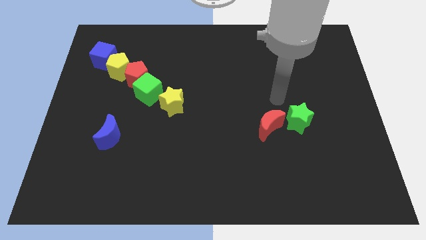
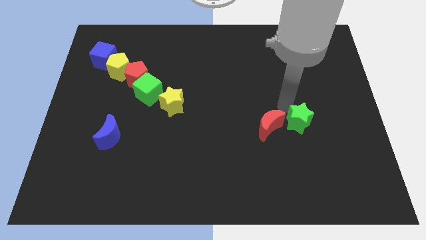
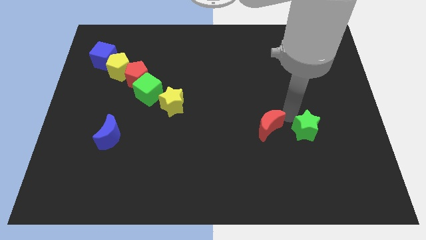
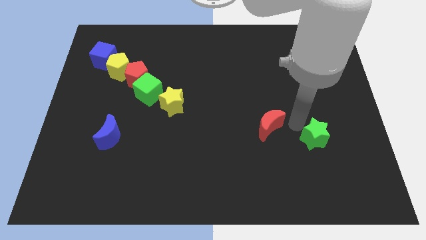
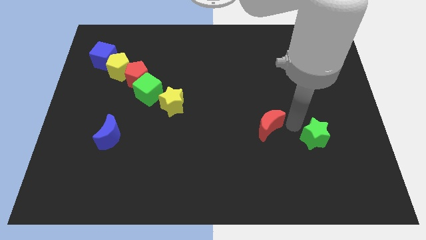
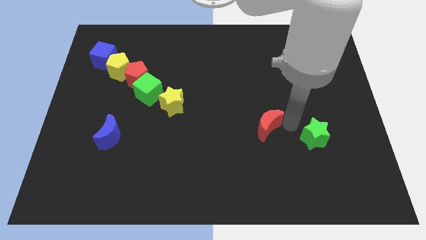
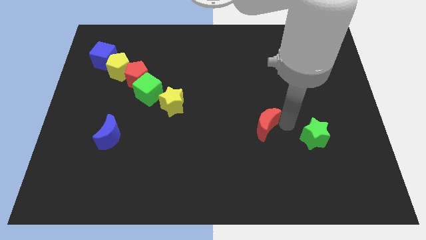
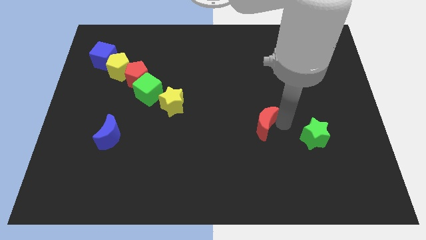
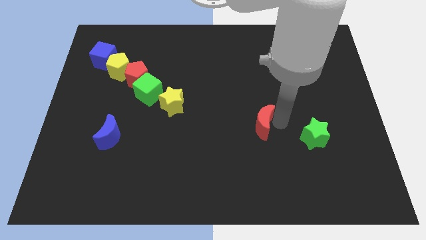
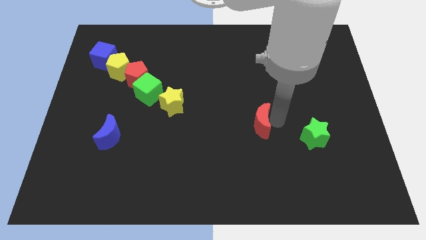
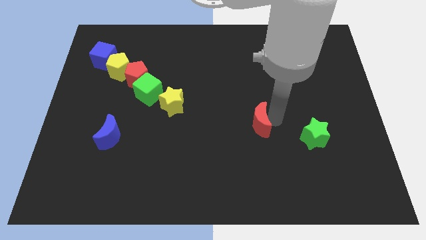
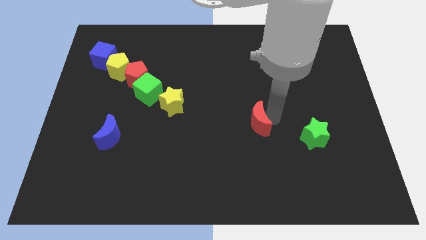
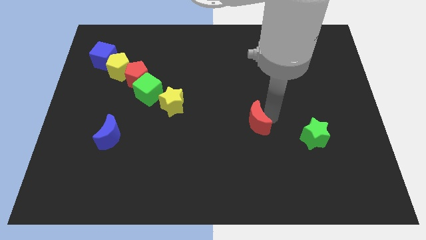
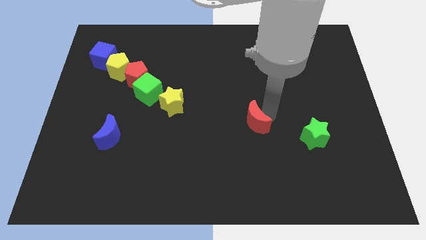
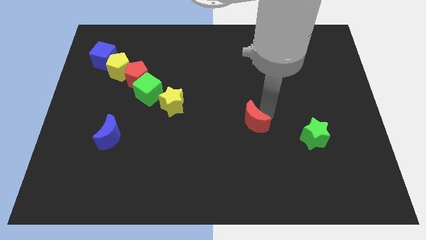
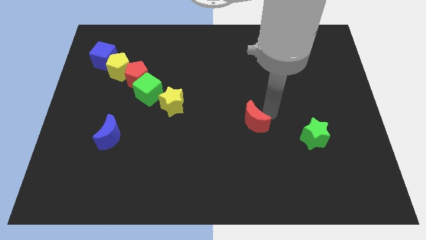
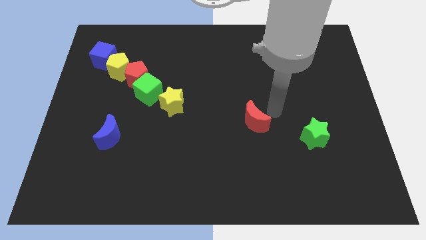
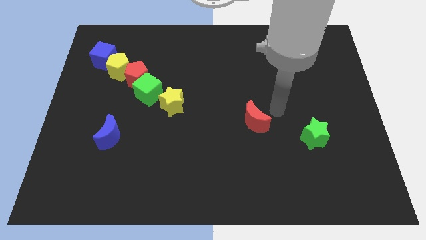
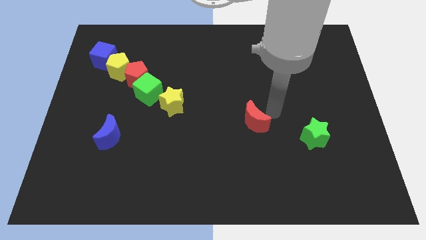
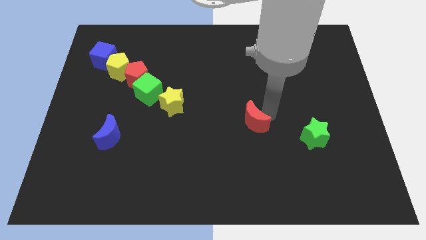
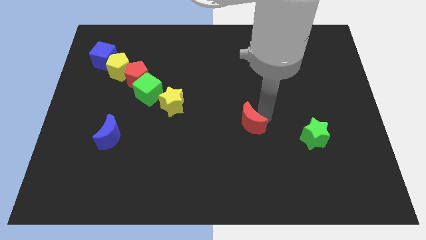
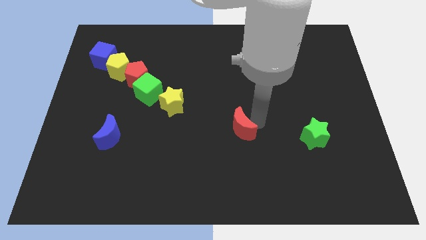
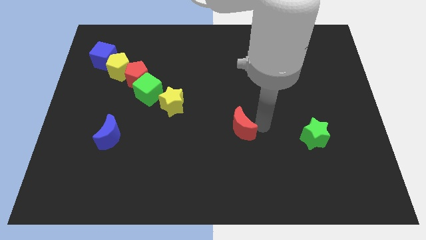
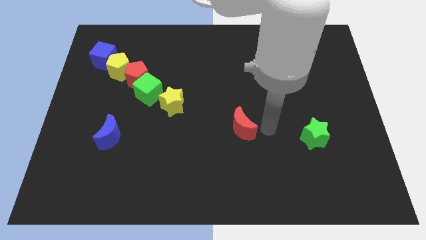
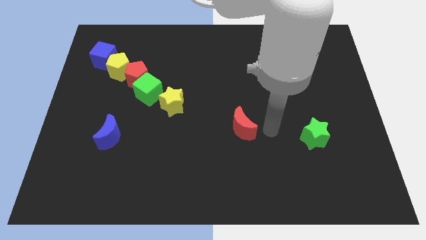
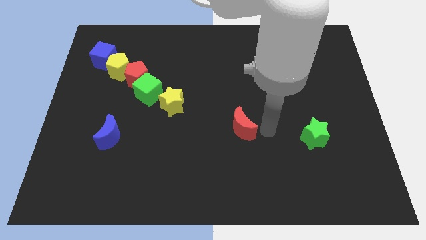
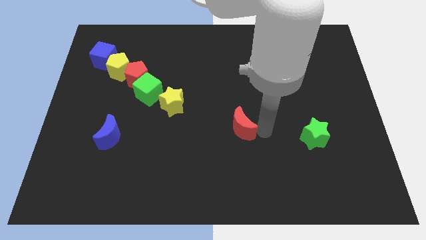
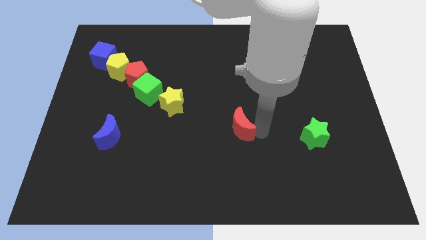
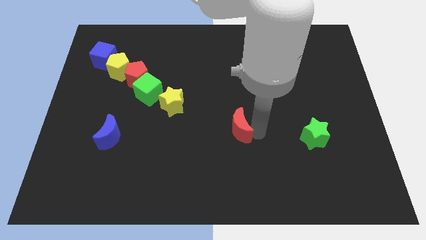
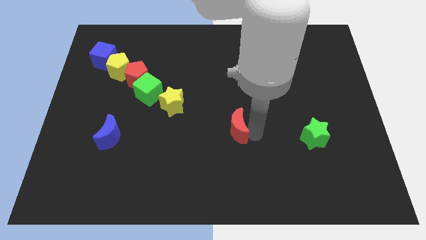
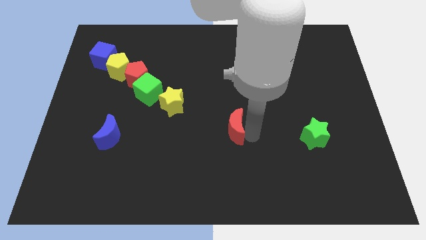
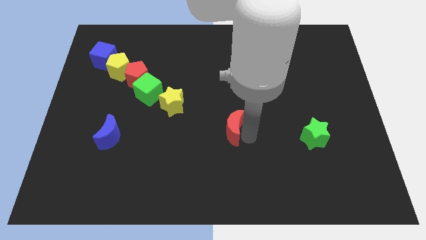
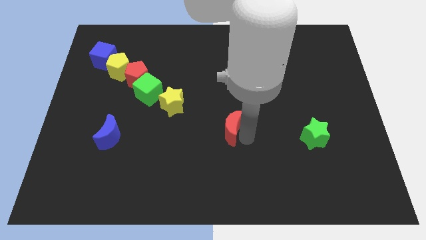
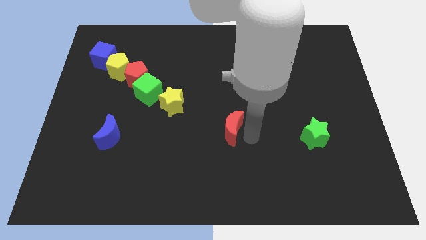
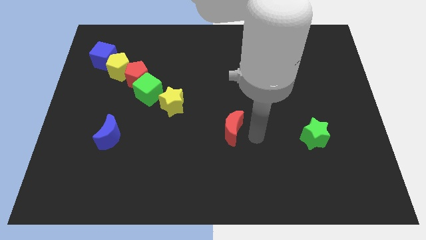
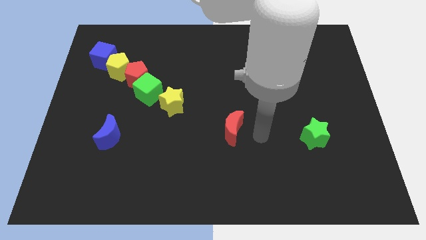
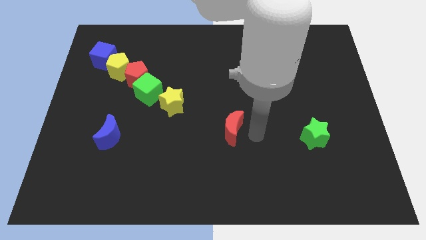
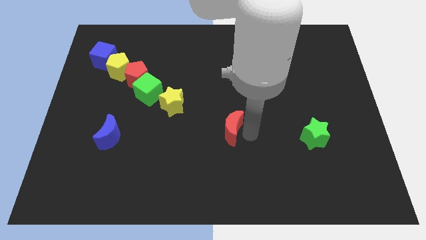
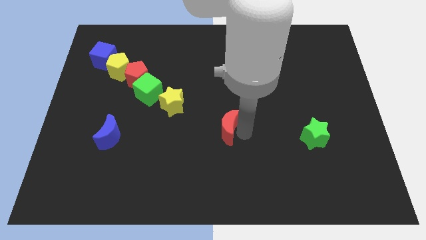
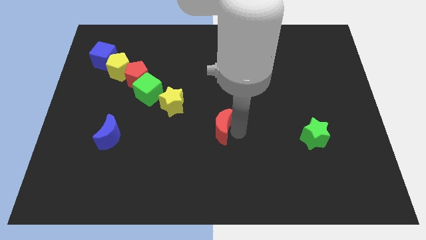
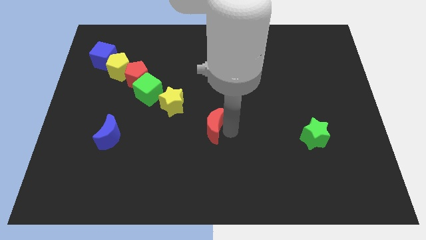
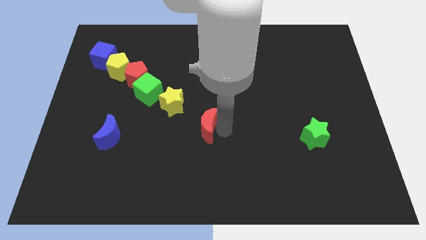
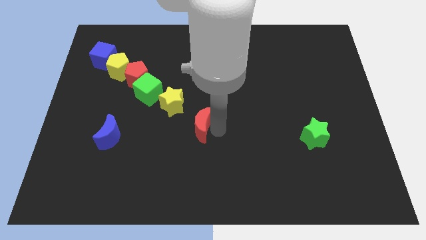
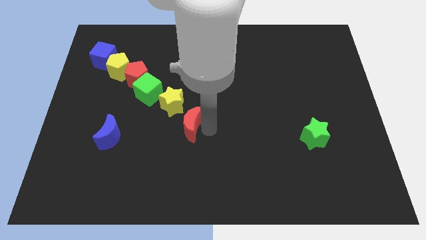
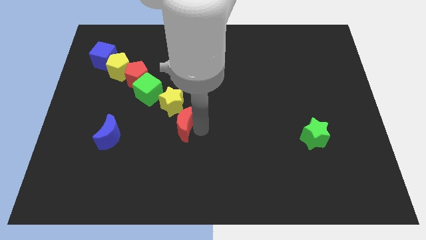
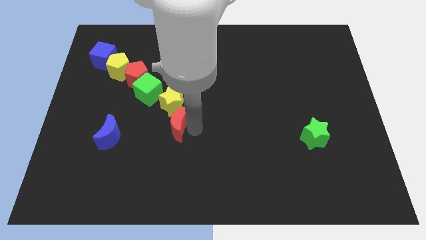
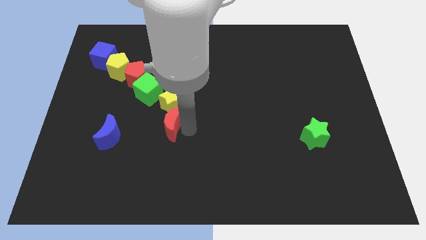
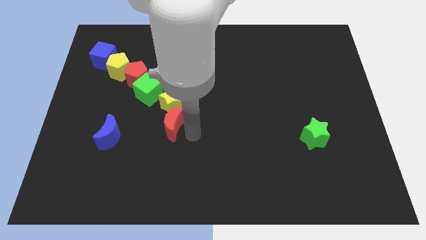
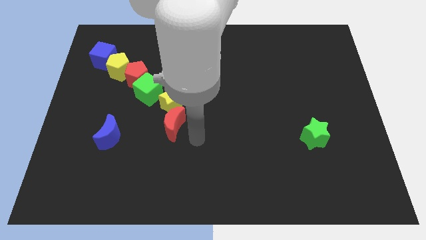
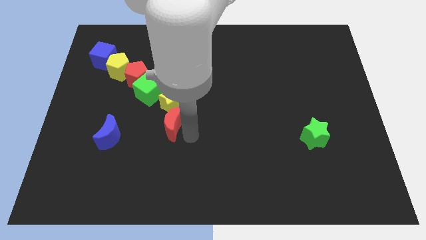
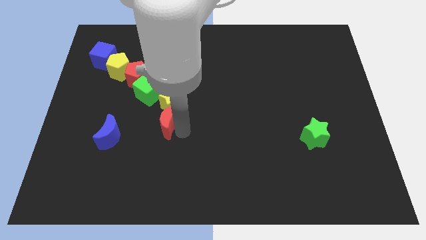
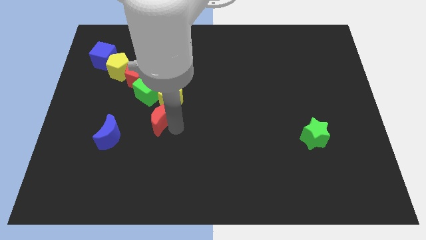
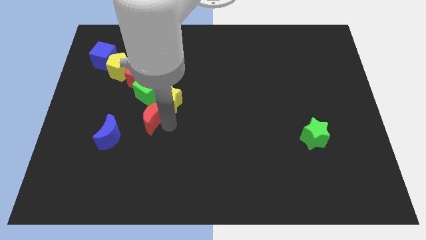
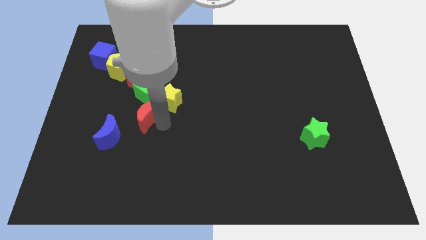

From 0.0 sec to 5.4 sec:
push the red moon left of the yellow star

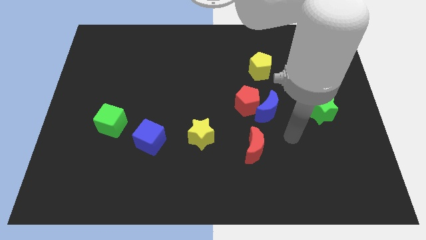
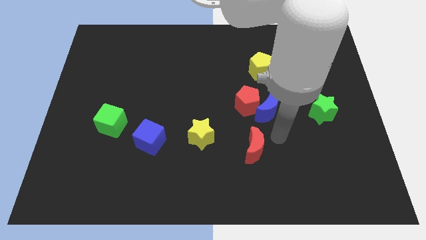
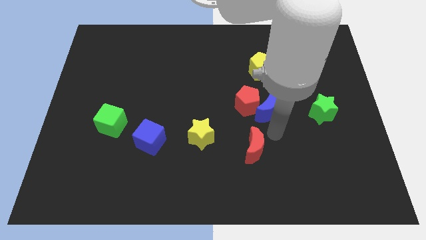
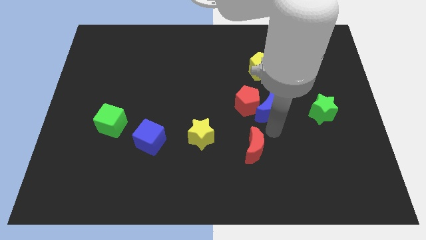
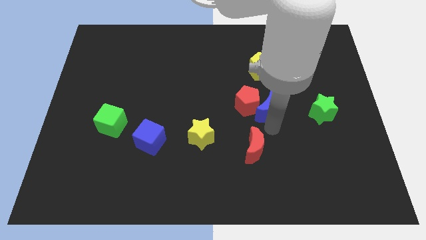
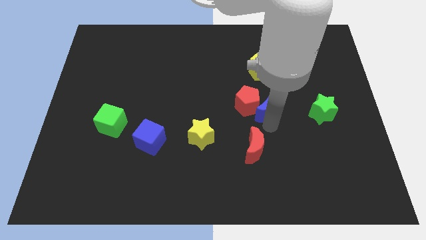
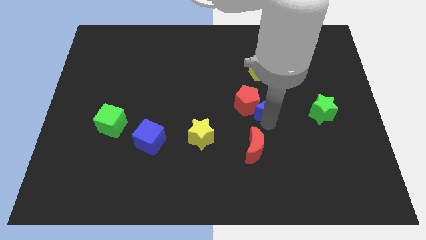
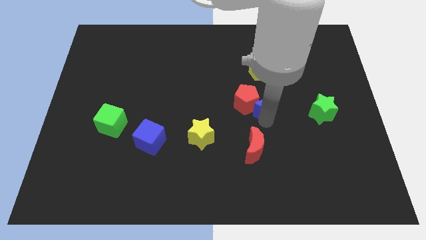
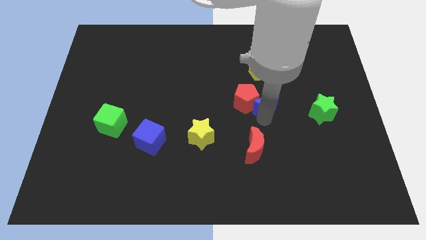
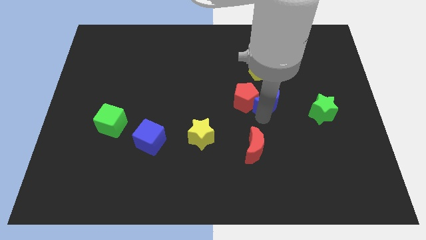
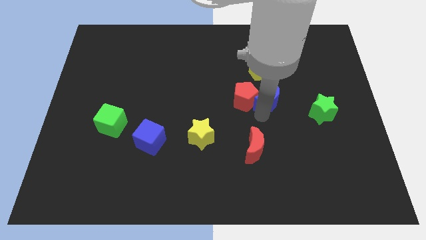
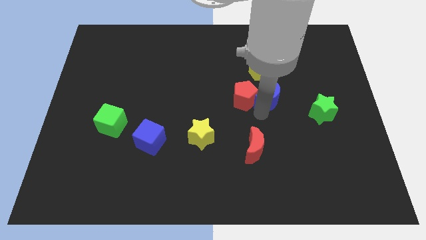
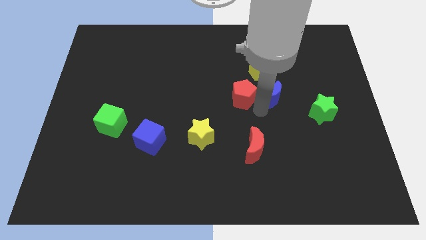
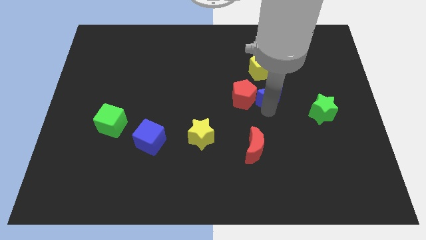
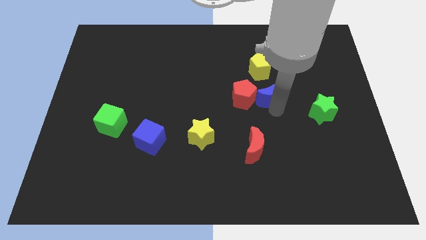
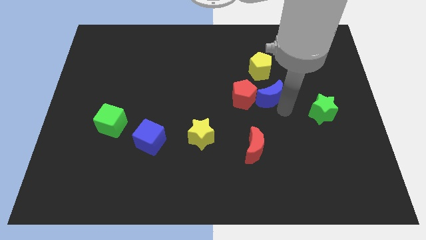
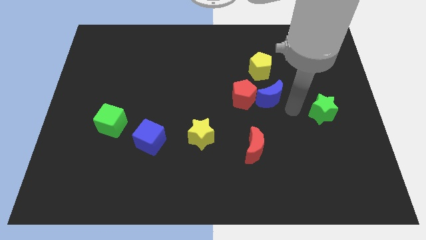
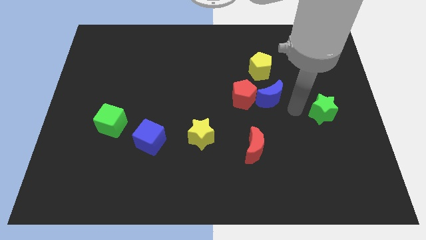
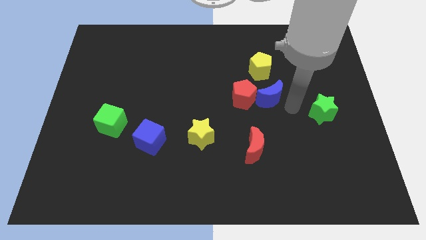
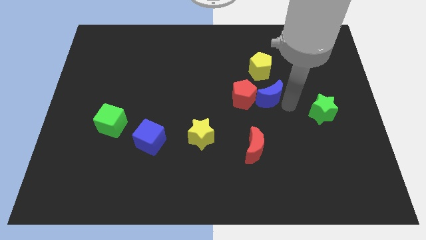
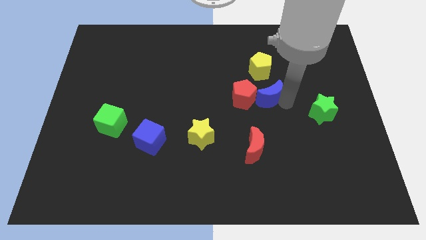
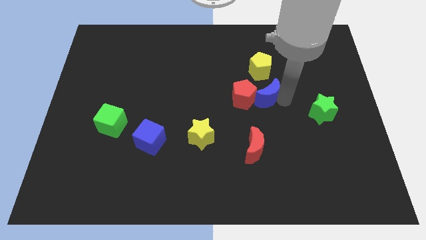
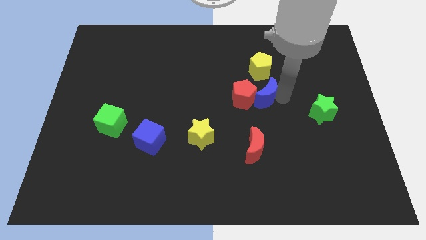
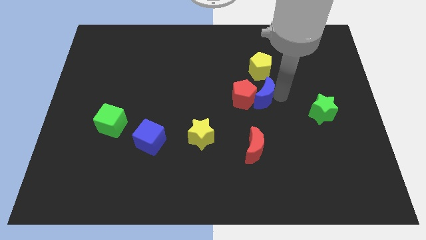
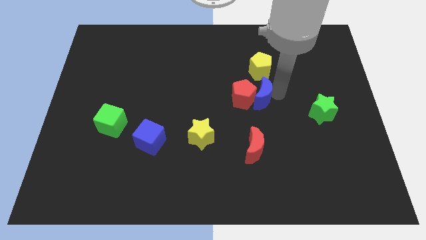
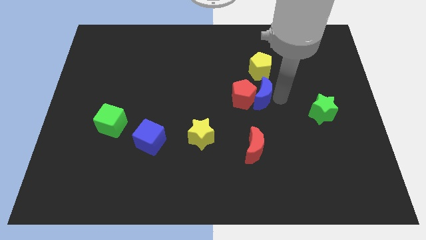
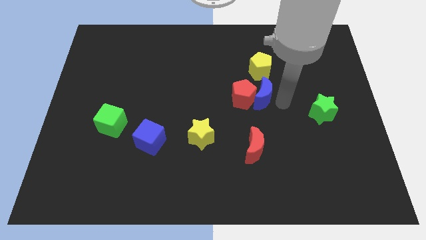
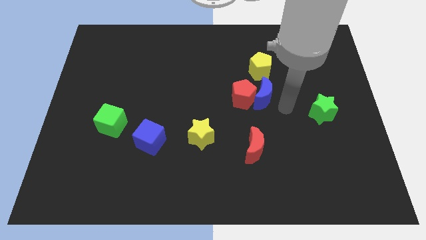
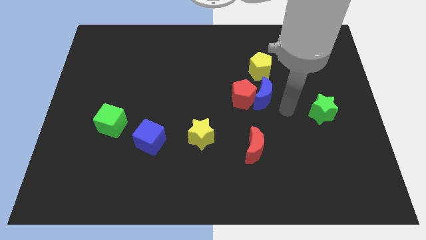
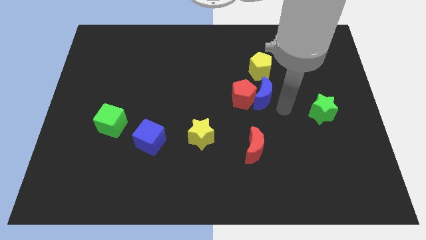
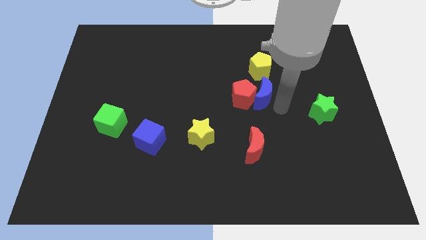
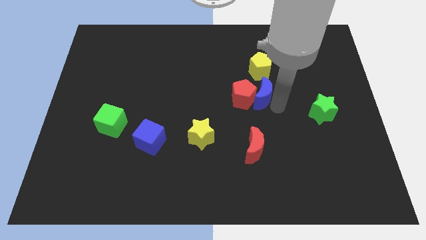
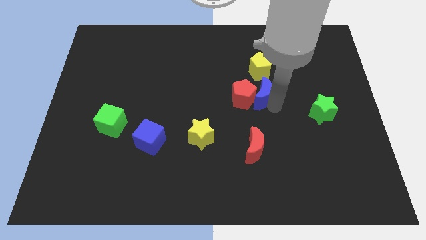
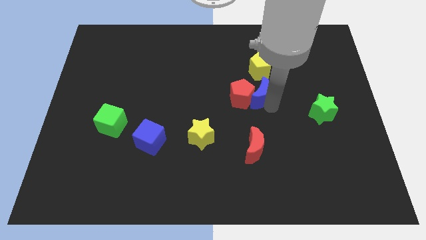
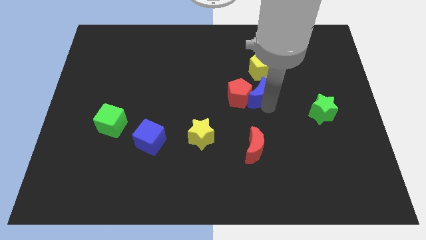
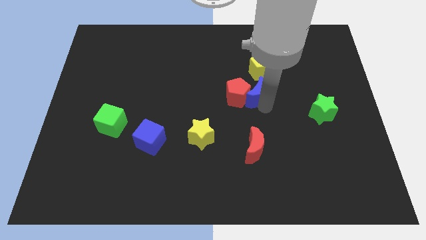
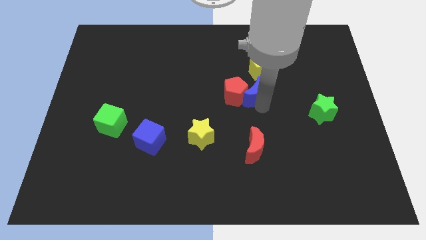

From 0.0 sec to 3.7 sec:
put the blue moon diagonally down and to the left of the yellow pentagon
